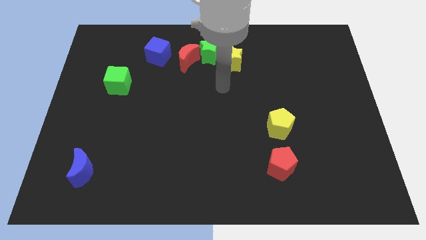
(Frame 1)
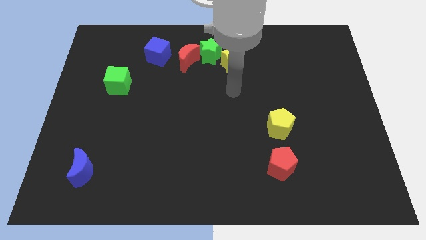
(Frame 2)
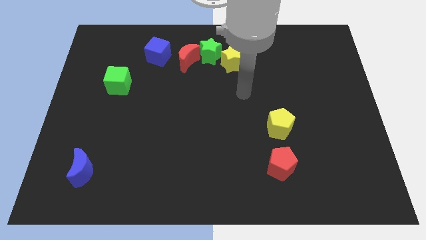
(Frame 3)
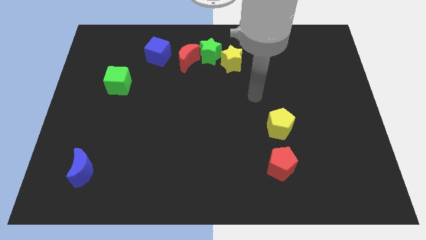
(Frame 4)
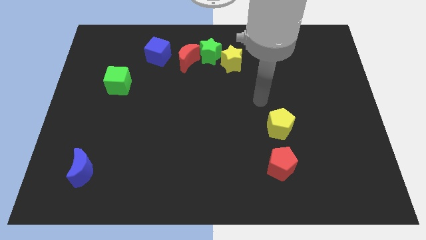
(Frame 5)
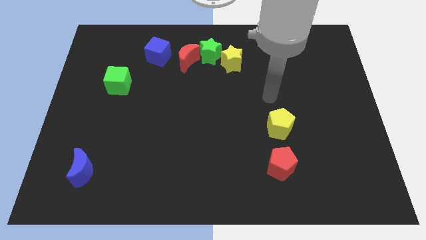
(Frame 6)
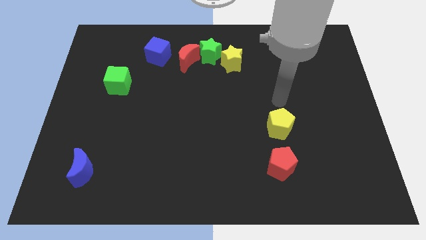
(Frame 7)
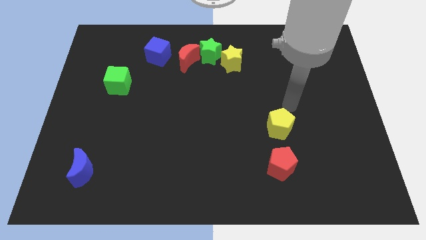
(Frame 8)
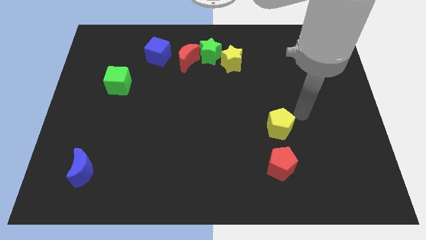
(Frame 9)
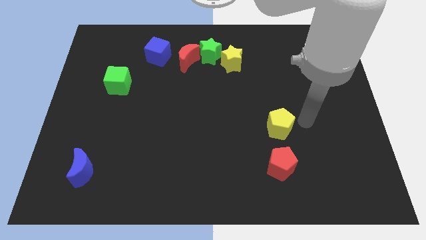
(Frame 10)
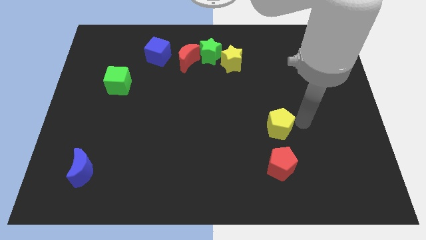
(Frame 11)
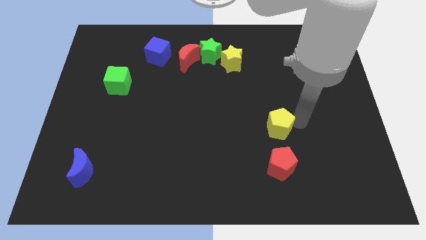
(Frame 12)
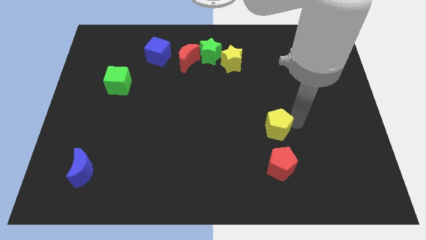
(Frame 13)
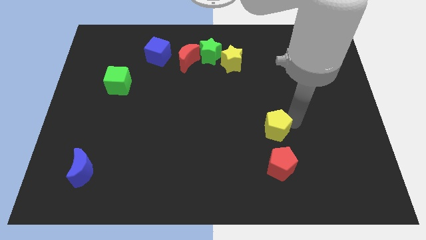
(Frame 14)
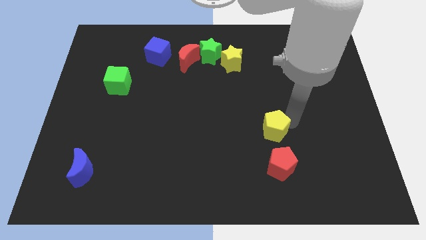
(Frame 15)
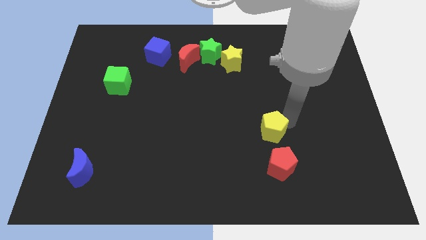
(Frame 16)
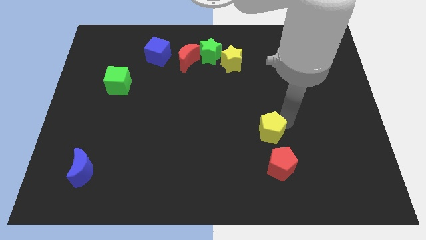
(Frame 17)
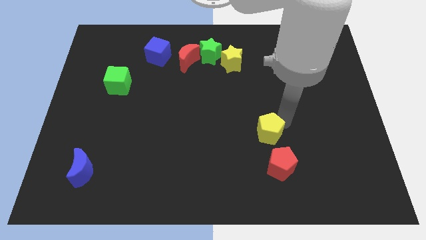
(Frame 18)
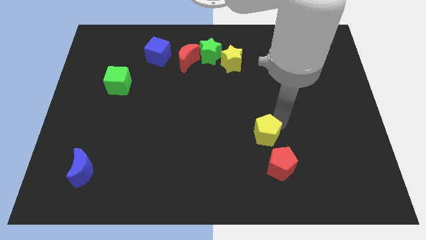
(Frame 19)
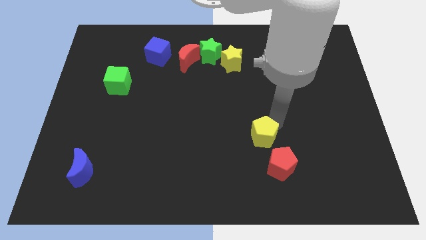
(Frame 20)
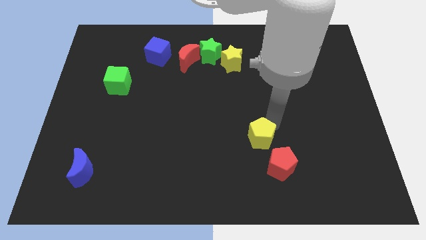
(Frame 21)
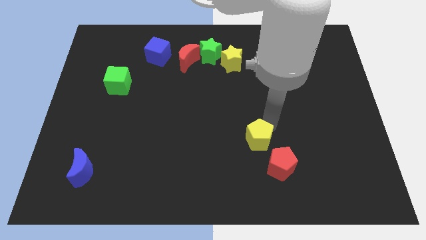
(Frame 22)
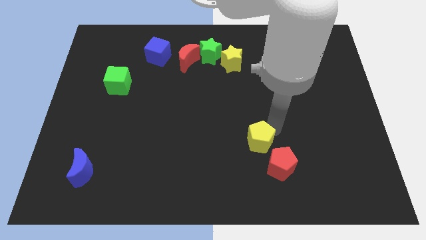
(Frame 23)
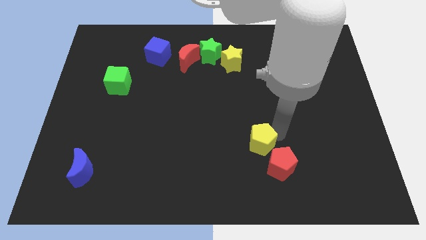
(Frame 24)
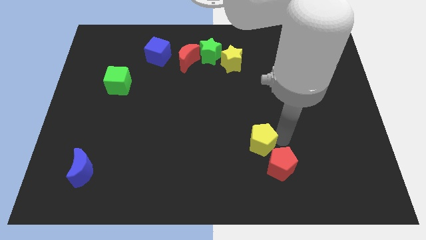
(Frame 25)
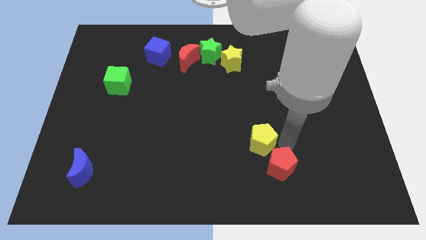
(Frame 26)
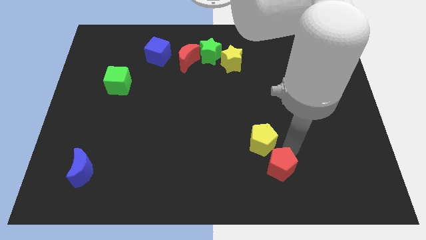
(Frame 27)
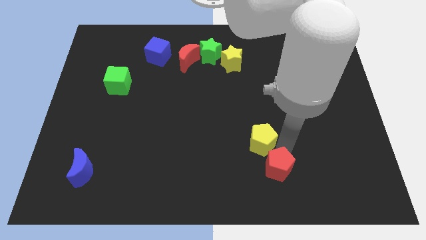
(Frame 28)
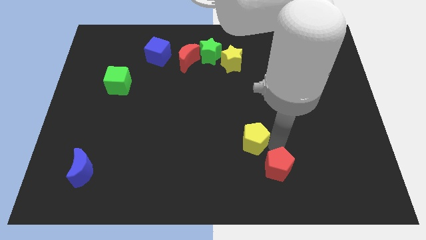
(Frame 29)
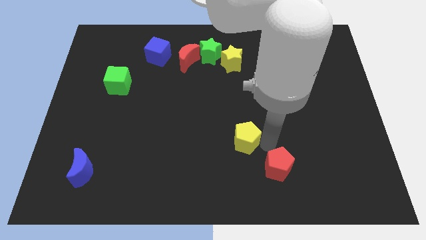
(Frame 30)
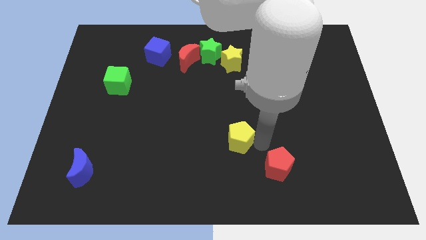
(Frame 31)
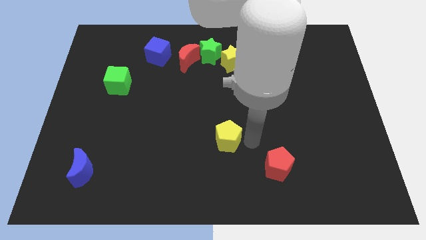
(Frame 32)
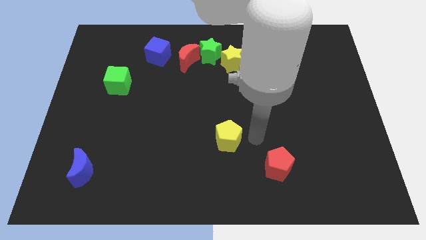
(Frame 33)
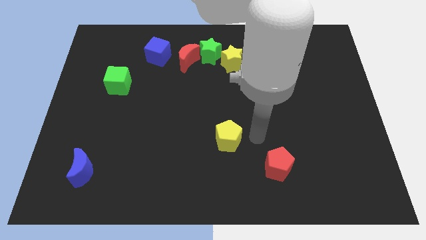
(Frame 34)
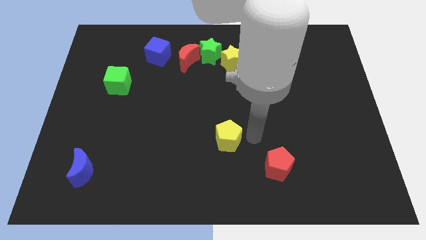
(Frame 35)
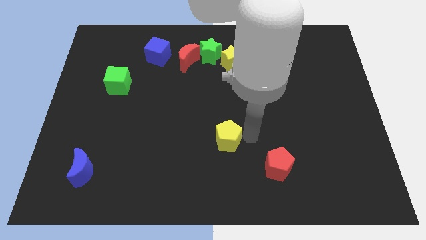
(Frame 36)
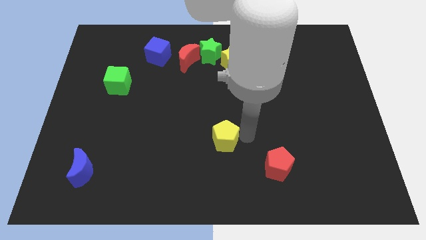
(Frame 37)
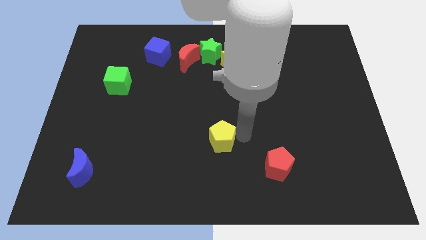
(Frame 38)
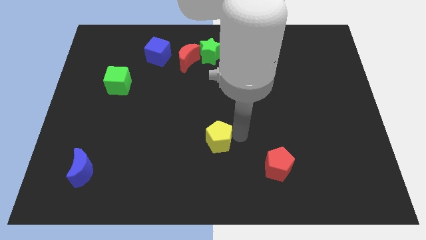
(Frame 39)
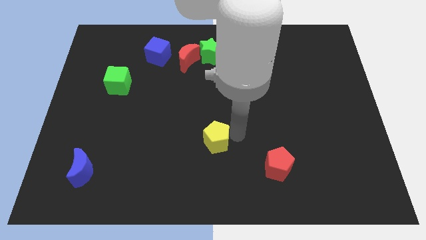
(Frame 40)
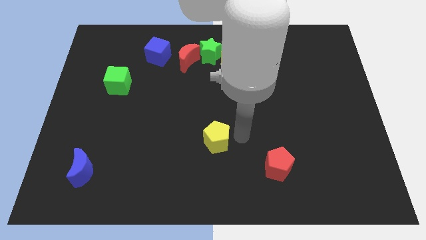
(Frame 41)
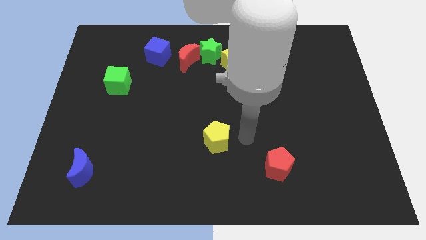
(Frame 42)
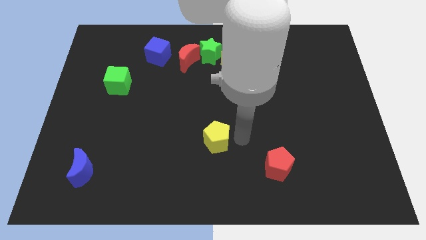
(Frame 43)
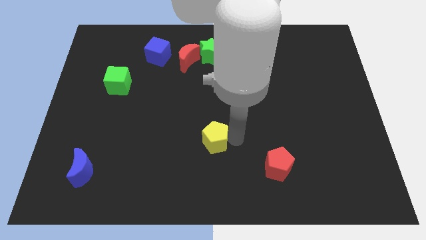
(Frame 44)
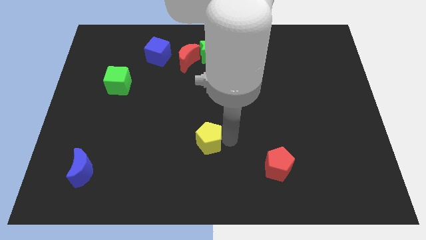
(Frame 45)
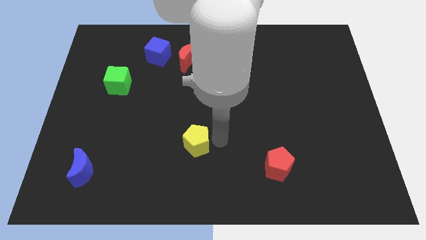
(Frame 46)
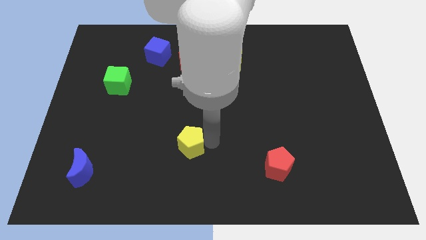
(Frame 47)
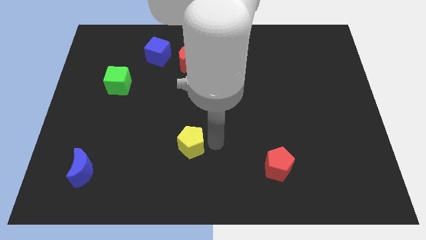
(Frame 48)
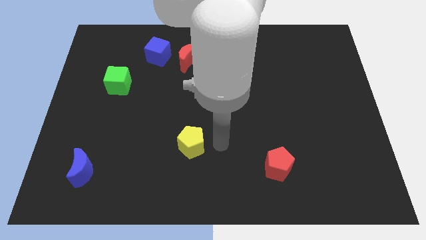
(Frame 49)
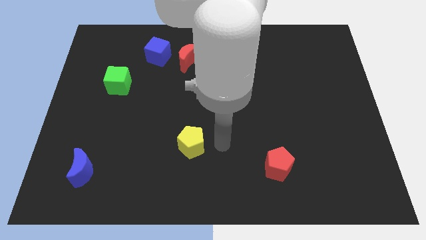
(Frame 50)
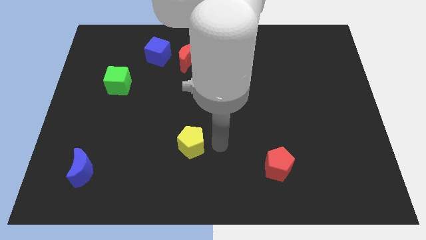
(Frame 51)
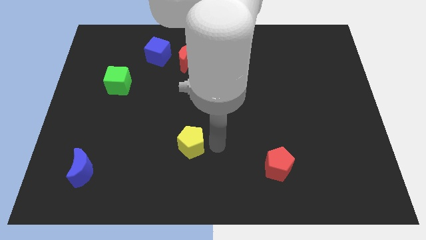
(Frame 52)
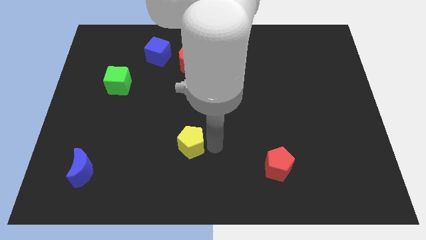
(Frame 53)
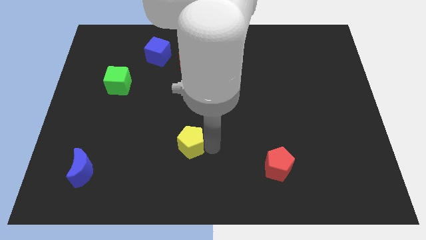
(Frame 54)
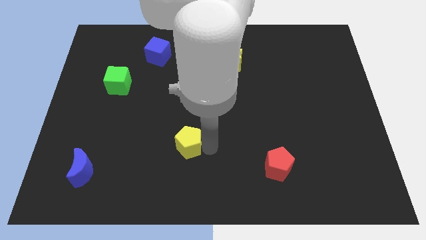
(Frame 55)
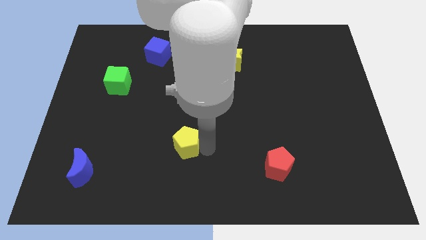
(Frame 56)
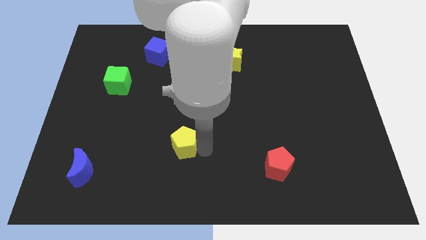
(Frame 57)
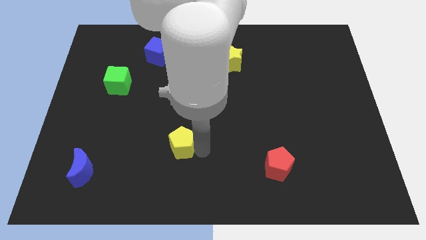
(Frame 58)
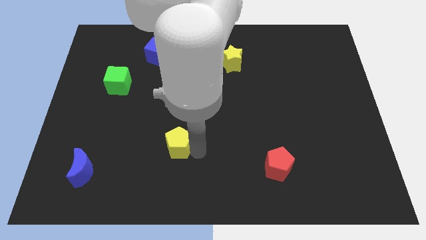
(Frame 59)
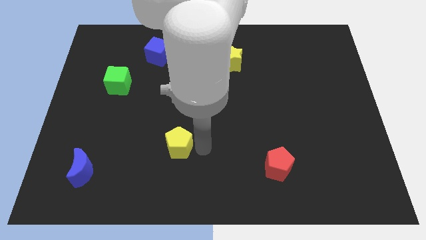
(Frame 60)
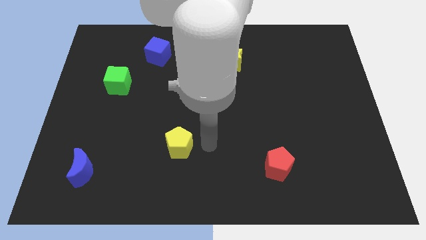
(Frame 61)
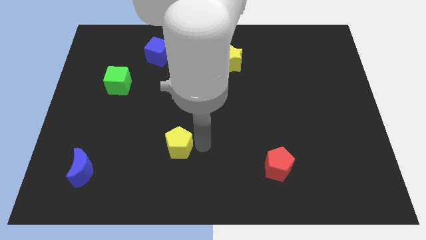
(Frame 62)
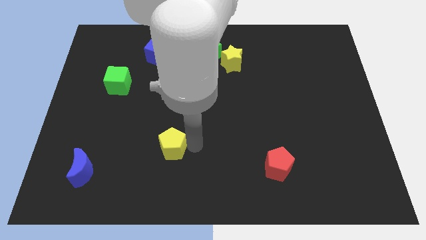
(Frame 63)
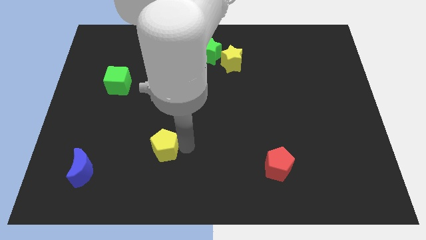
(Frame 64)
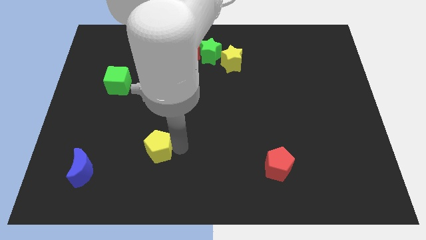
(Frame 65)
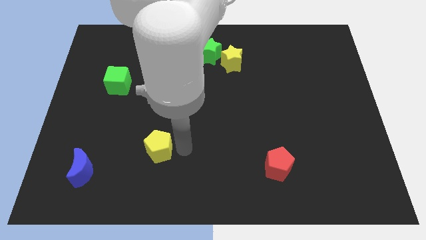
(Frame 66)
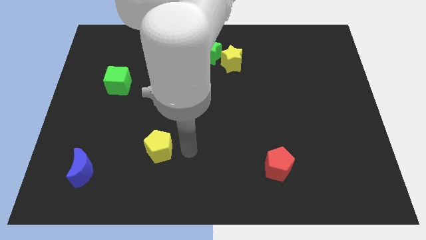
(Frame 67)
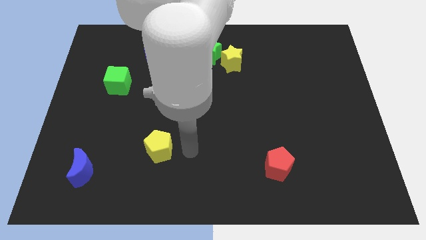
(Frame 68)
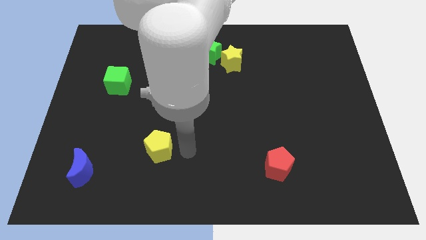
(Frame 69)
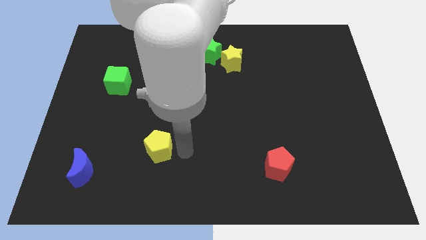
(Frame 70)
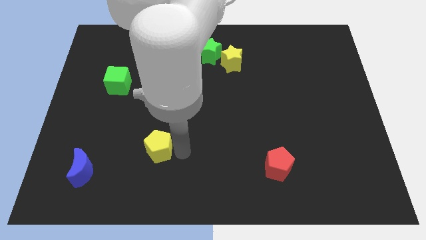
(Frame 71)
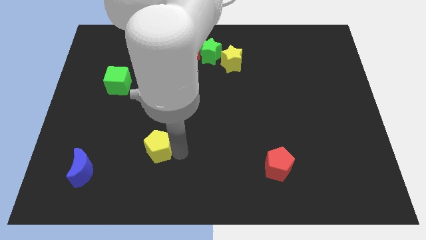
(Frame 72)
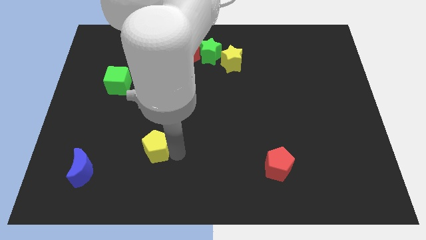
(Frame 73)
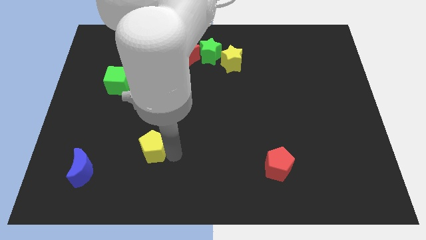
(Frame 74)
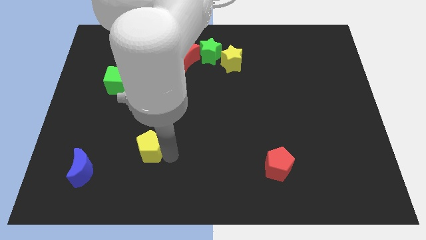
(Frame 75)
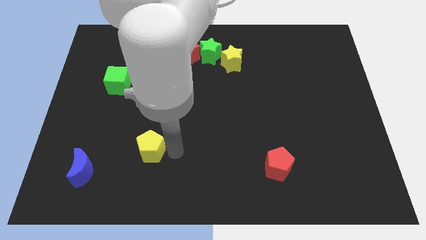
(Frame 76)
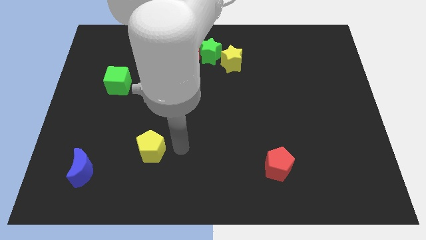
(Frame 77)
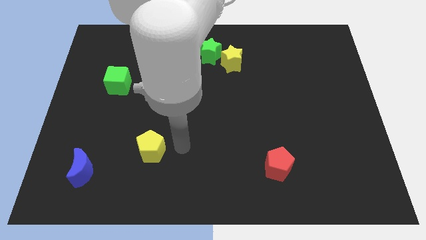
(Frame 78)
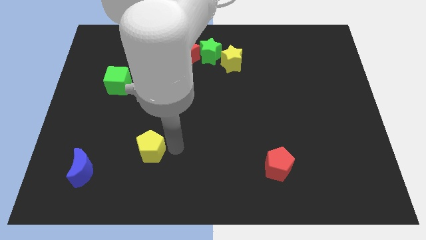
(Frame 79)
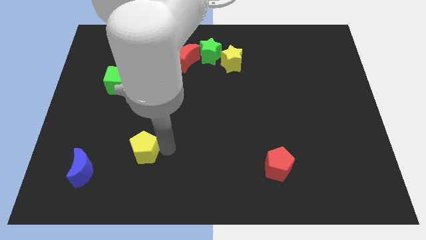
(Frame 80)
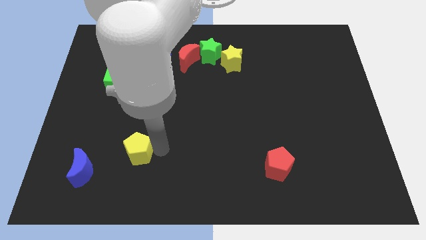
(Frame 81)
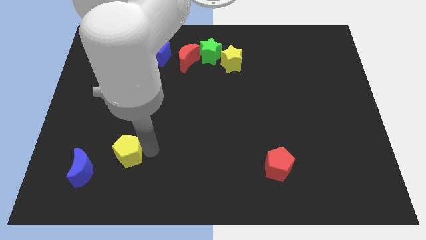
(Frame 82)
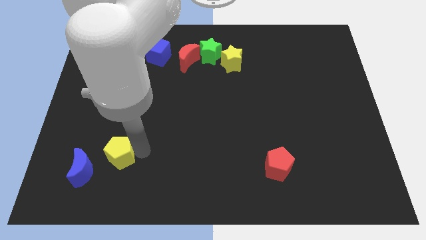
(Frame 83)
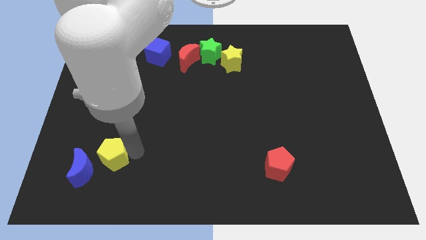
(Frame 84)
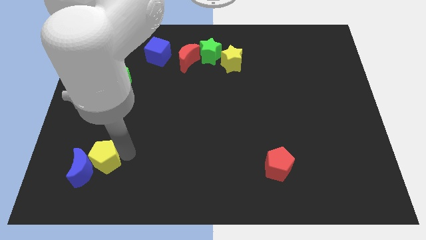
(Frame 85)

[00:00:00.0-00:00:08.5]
slide the yellow pentagon towards the blue moon
